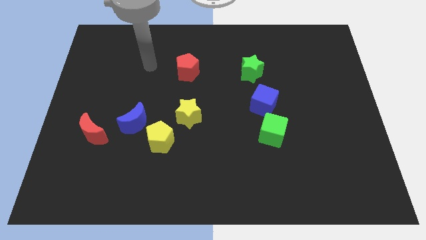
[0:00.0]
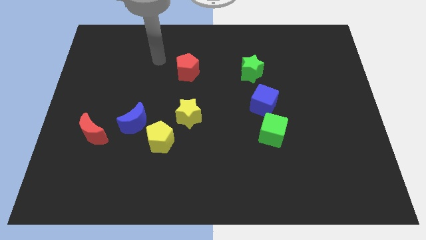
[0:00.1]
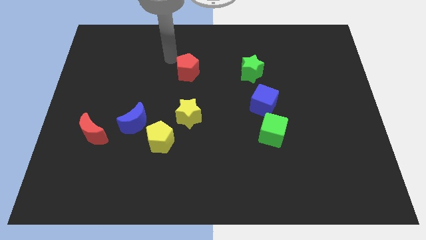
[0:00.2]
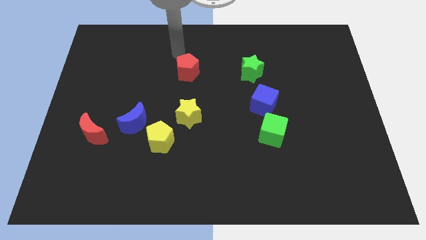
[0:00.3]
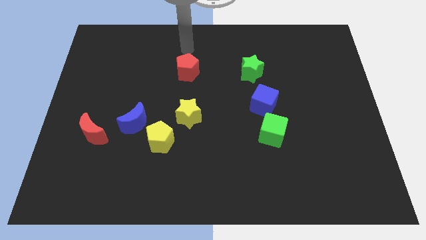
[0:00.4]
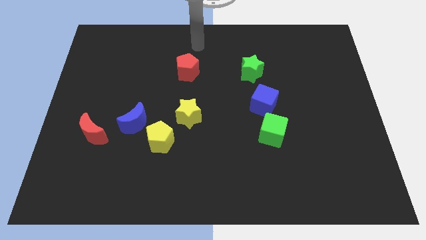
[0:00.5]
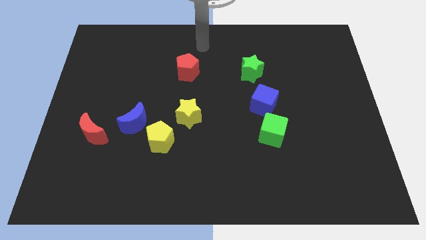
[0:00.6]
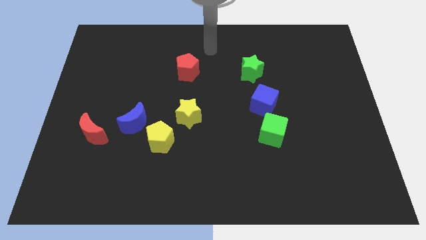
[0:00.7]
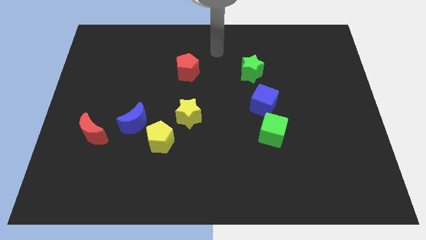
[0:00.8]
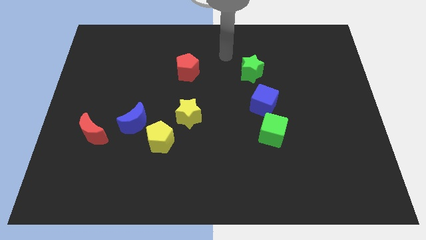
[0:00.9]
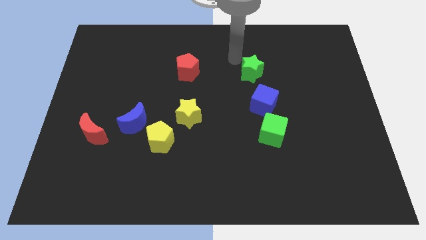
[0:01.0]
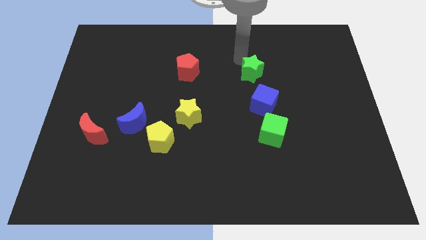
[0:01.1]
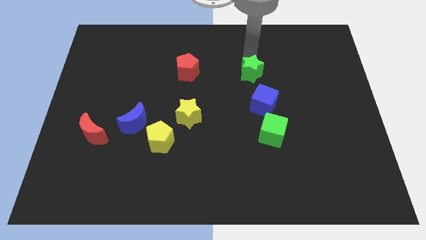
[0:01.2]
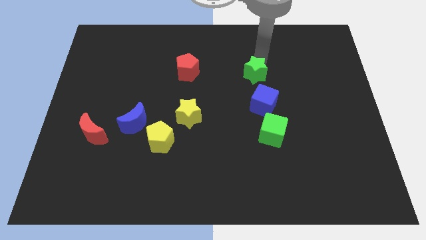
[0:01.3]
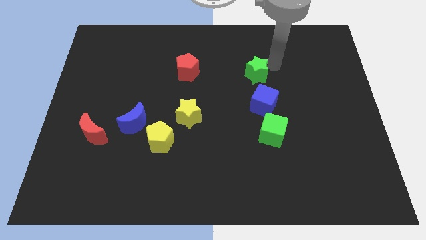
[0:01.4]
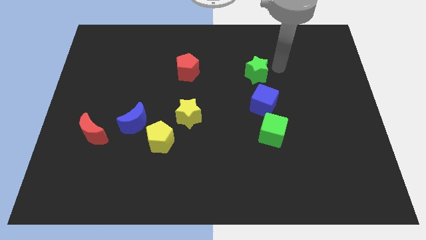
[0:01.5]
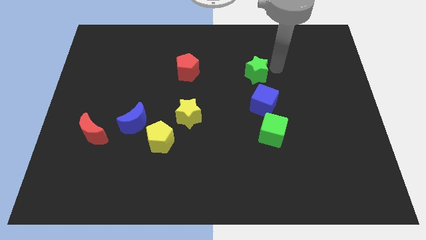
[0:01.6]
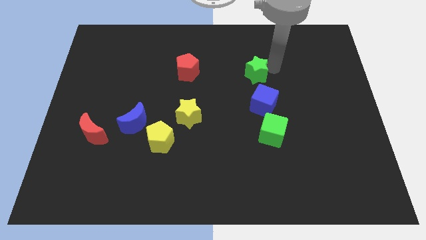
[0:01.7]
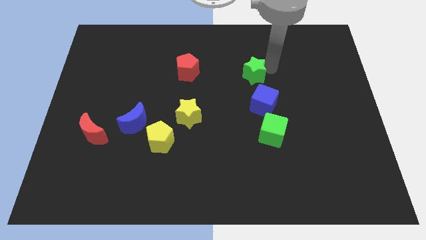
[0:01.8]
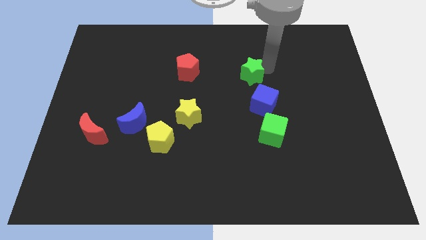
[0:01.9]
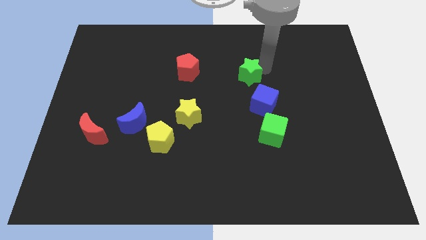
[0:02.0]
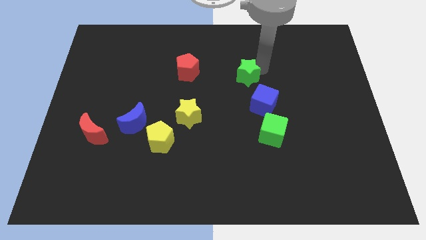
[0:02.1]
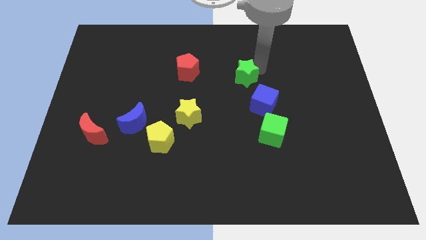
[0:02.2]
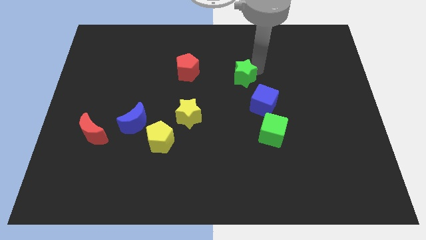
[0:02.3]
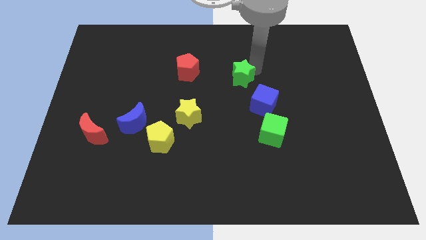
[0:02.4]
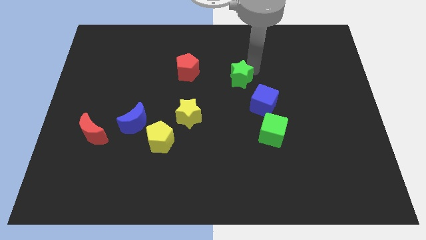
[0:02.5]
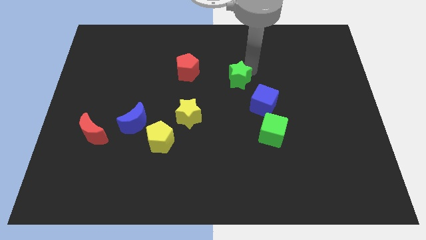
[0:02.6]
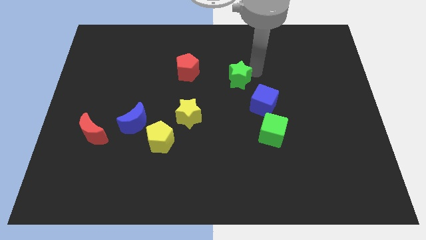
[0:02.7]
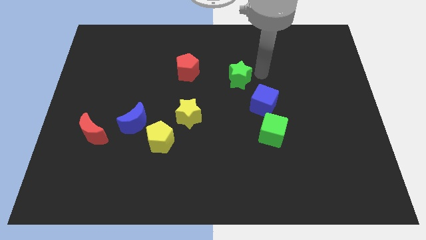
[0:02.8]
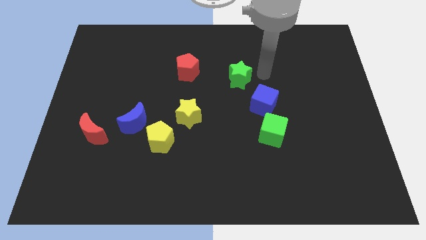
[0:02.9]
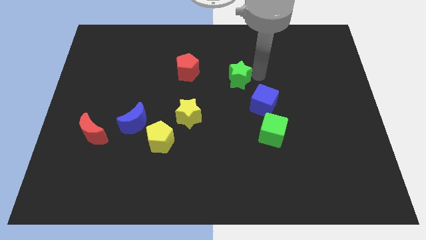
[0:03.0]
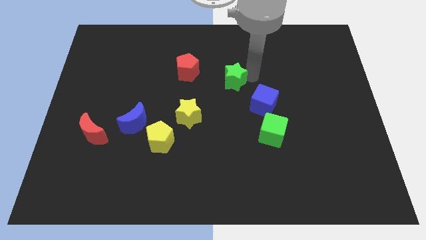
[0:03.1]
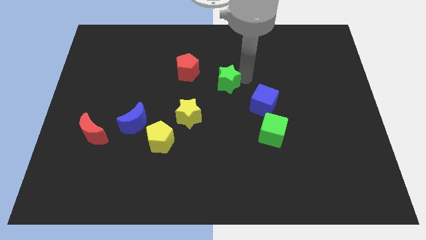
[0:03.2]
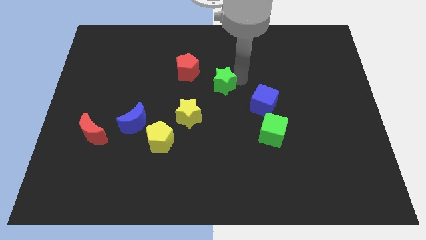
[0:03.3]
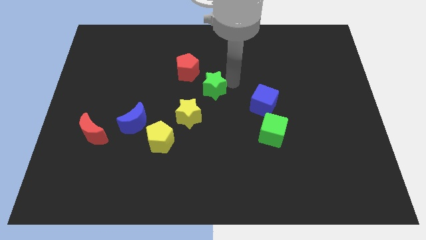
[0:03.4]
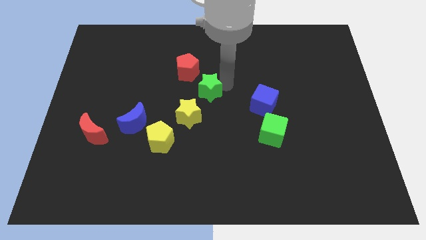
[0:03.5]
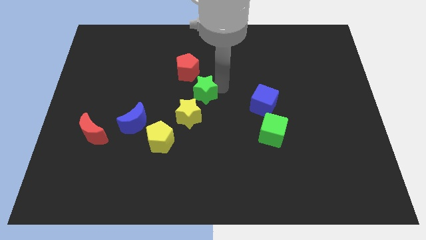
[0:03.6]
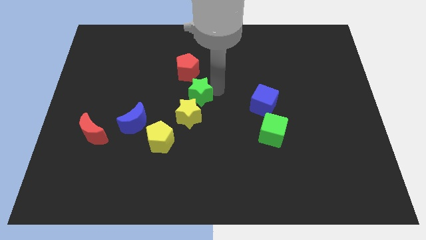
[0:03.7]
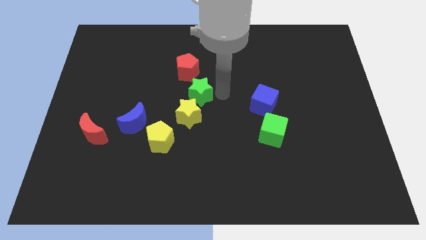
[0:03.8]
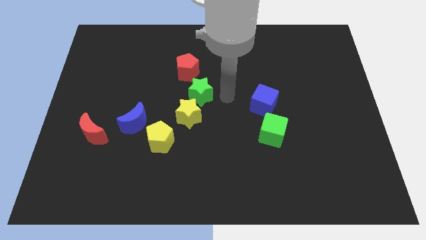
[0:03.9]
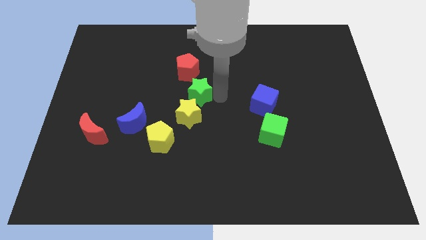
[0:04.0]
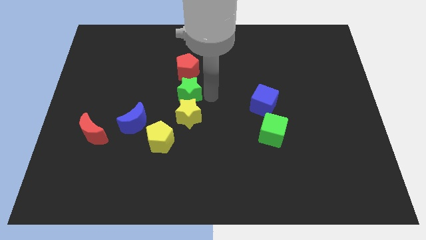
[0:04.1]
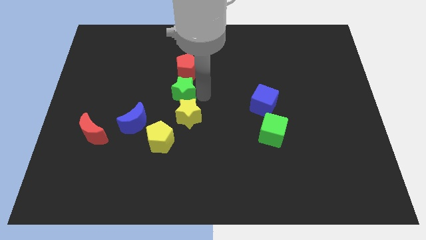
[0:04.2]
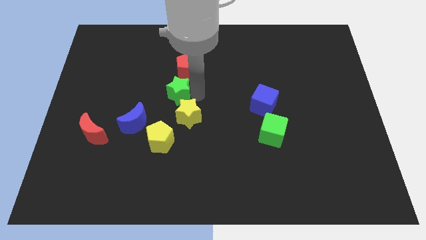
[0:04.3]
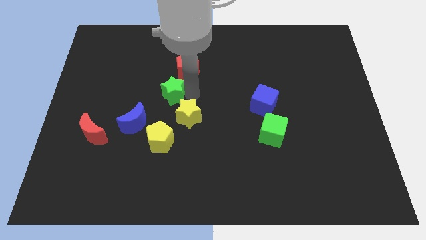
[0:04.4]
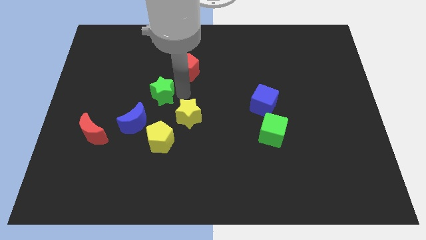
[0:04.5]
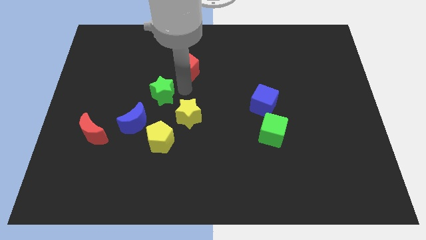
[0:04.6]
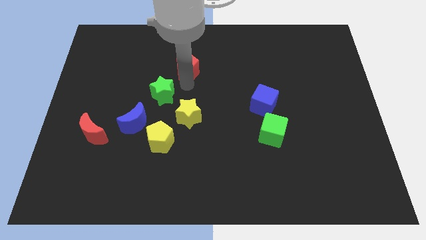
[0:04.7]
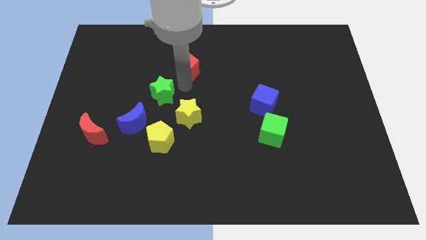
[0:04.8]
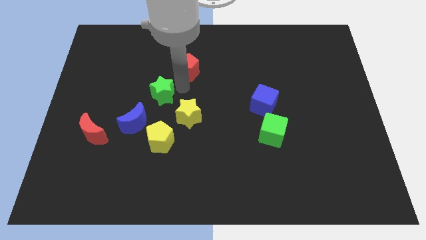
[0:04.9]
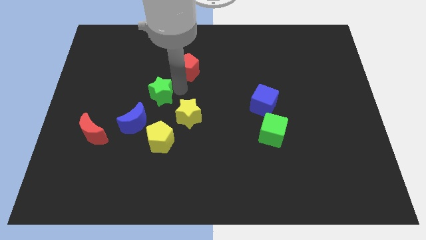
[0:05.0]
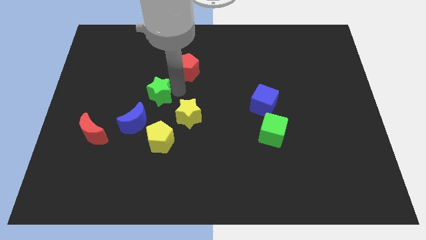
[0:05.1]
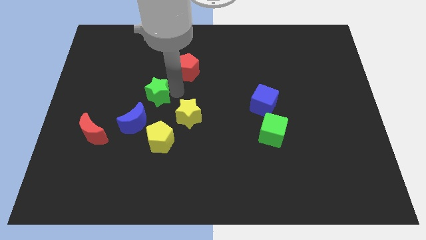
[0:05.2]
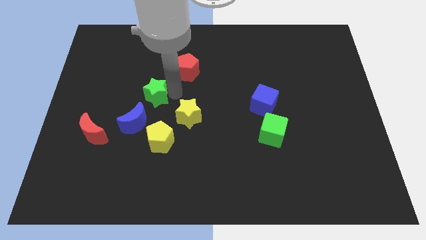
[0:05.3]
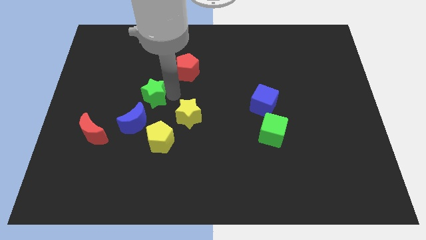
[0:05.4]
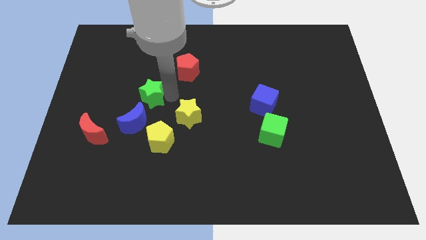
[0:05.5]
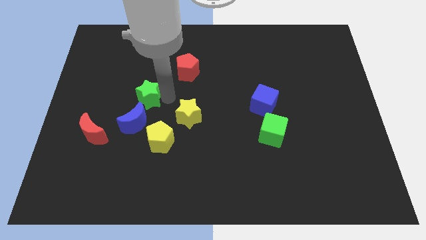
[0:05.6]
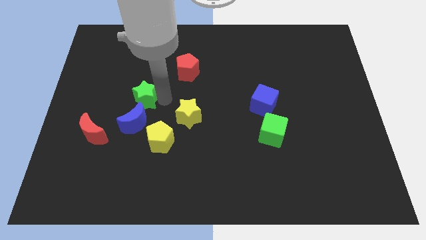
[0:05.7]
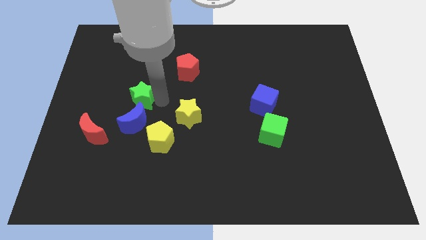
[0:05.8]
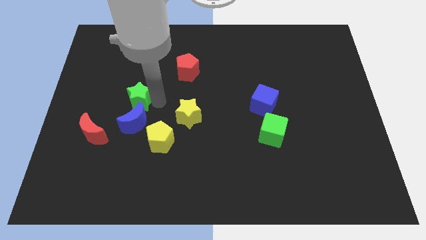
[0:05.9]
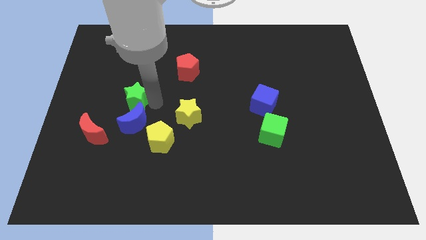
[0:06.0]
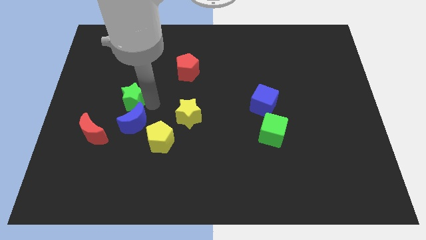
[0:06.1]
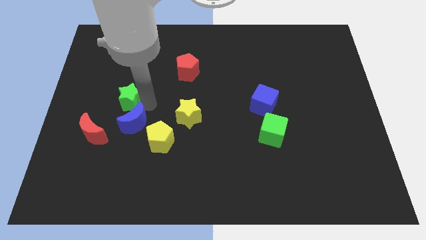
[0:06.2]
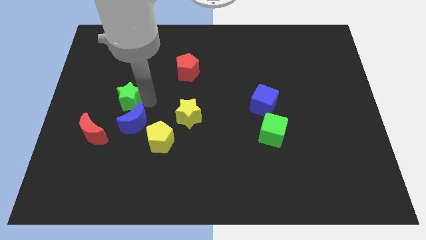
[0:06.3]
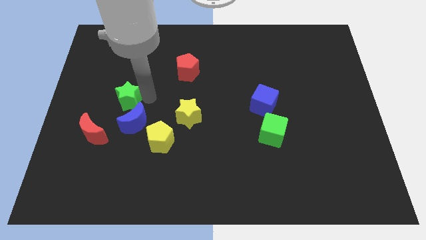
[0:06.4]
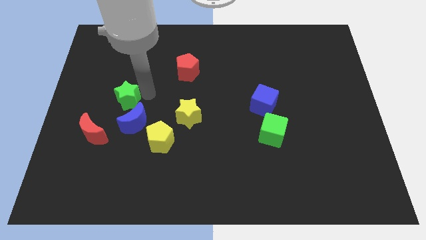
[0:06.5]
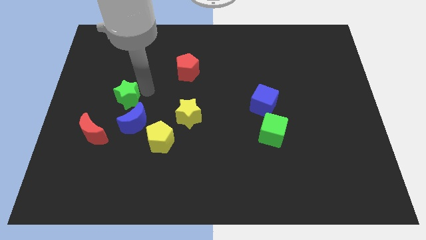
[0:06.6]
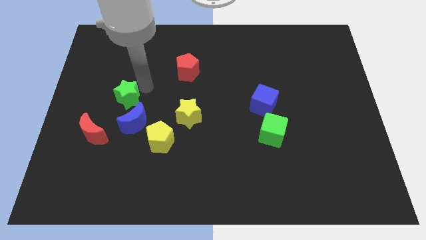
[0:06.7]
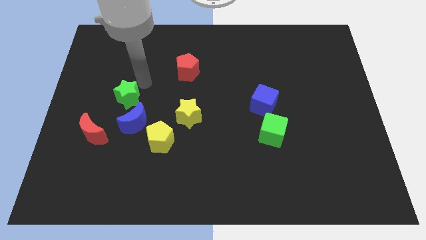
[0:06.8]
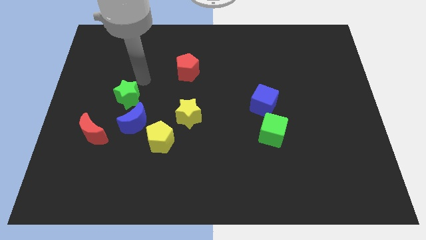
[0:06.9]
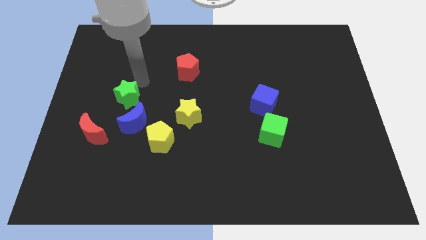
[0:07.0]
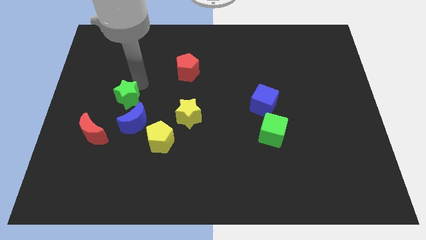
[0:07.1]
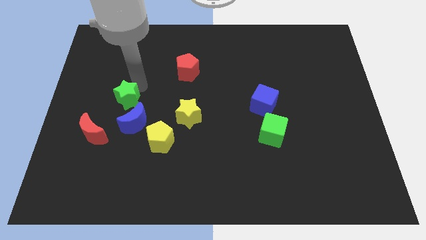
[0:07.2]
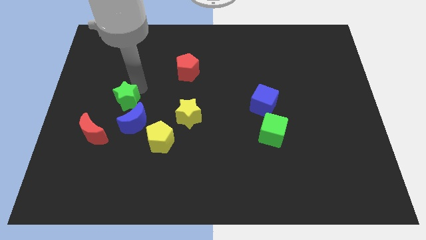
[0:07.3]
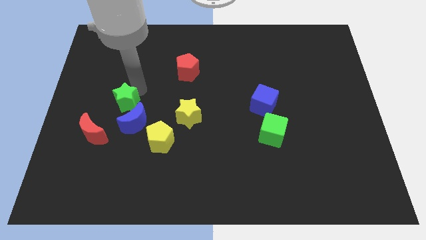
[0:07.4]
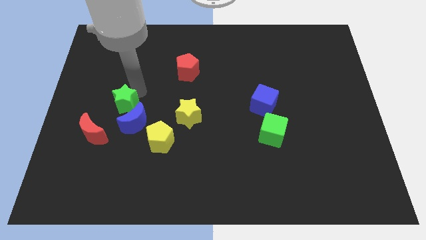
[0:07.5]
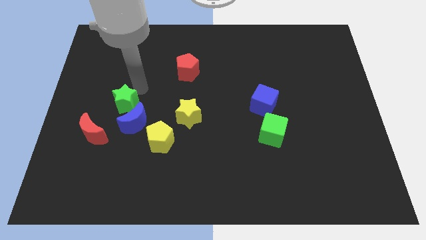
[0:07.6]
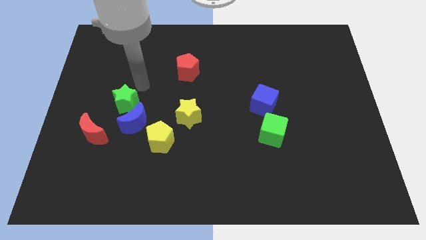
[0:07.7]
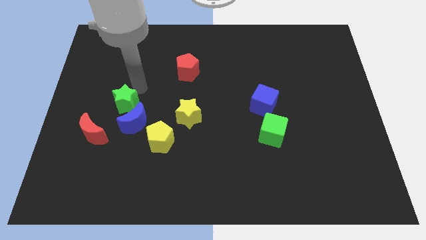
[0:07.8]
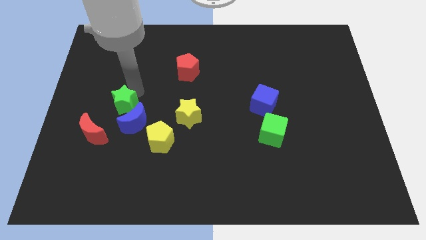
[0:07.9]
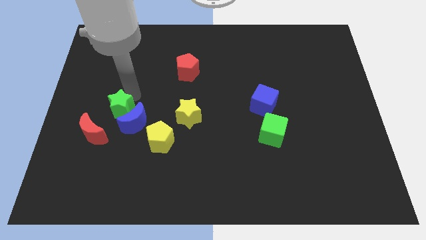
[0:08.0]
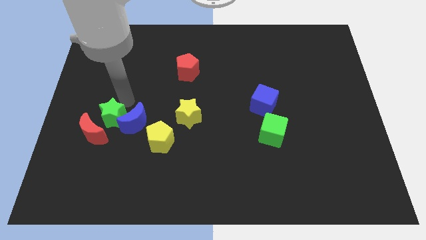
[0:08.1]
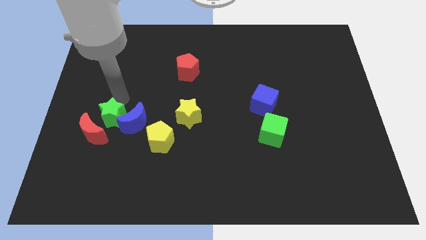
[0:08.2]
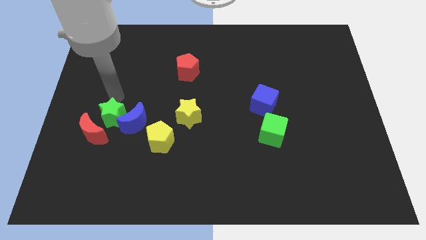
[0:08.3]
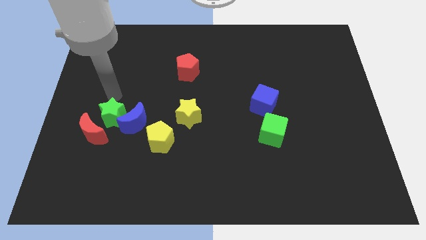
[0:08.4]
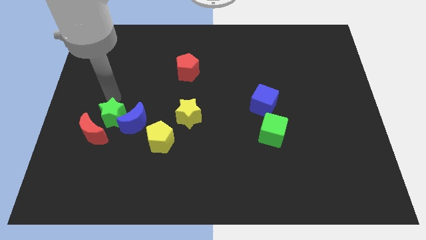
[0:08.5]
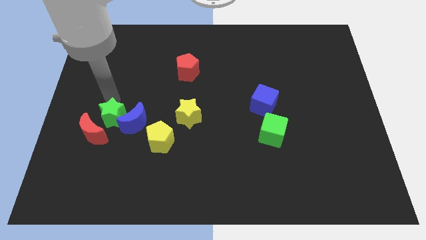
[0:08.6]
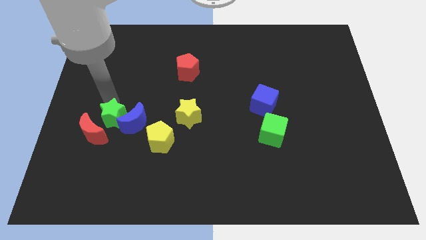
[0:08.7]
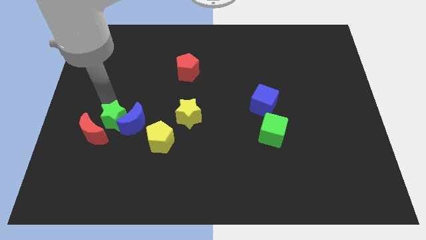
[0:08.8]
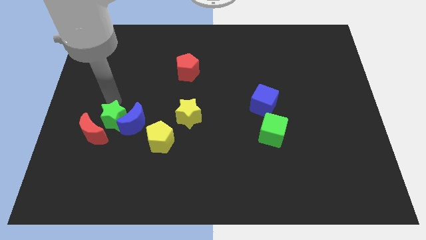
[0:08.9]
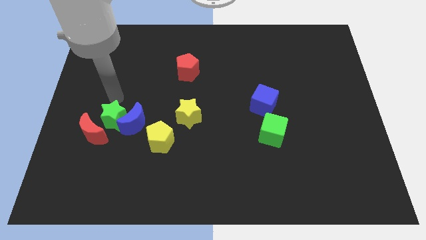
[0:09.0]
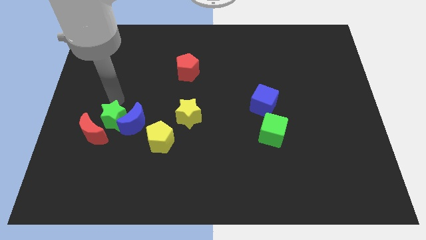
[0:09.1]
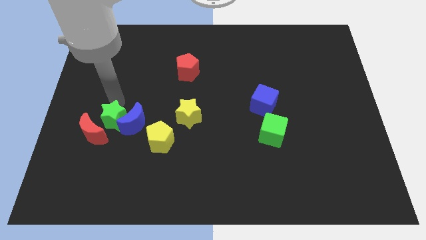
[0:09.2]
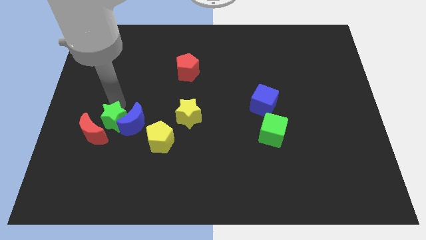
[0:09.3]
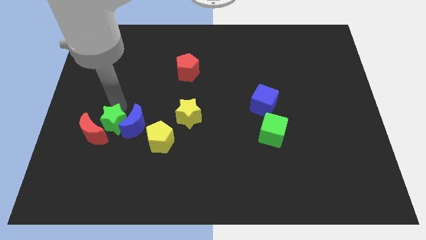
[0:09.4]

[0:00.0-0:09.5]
slide the green star just left of the yellow pentagon
